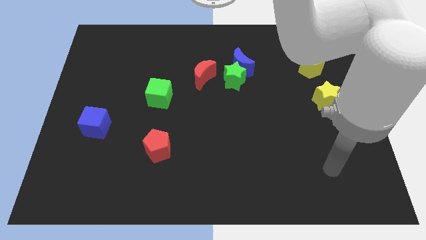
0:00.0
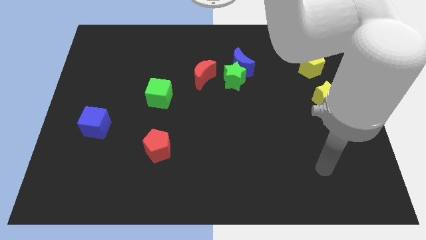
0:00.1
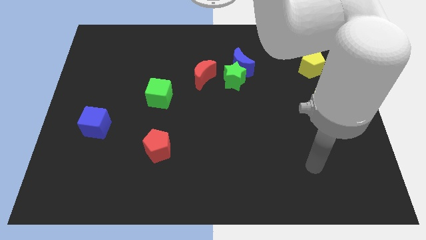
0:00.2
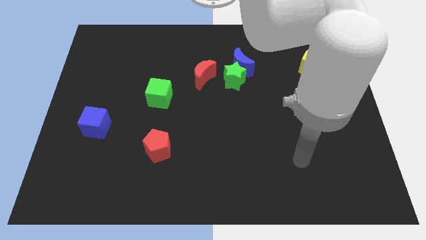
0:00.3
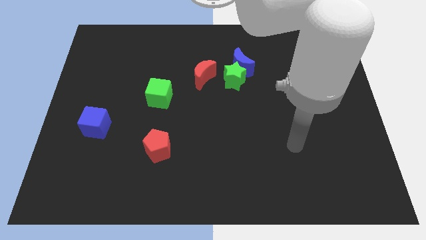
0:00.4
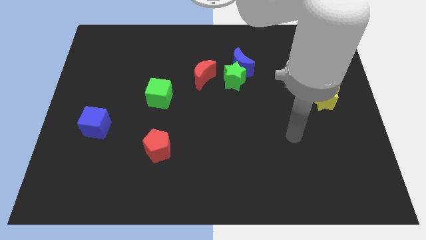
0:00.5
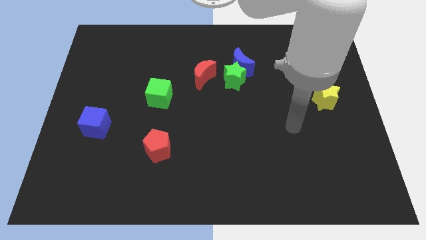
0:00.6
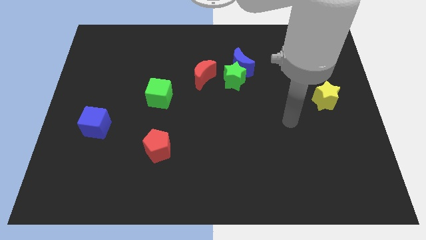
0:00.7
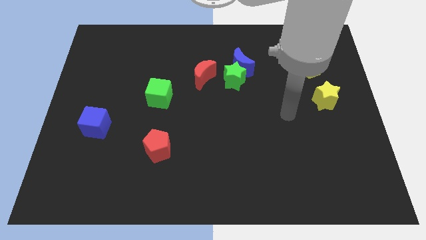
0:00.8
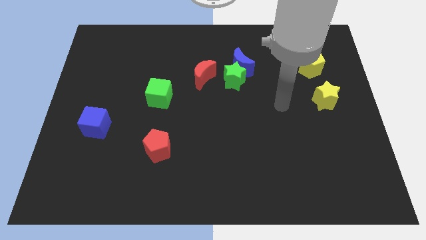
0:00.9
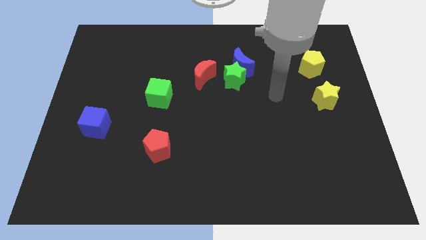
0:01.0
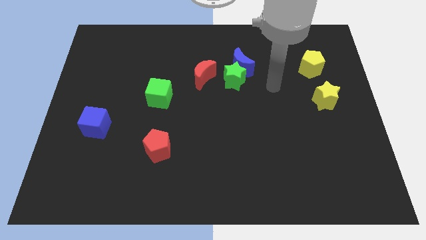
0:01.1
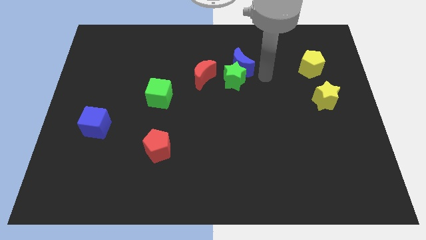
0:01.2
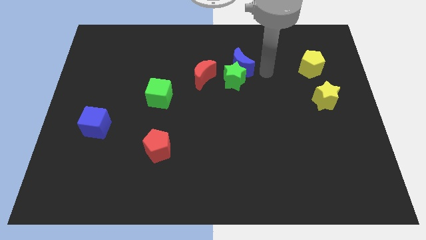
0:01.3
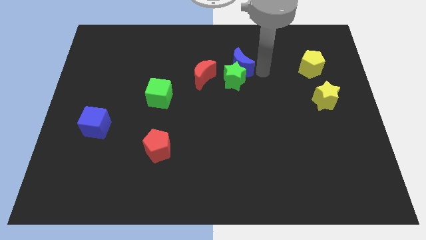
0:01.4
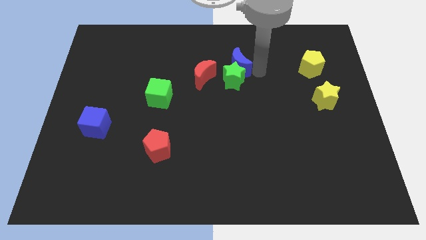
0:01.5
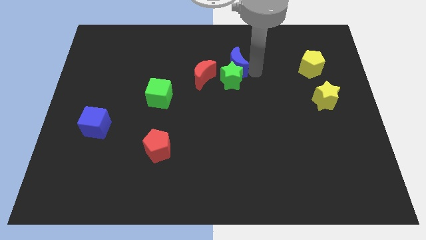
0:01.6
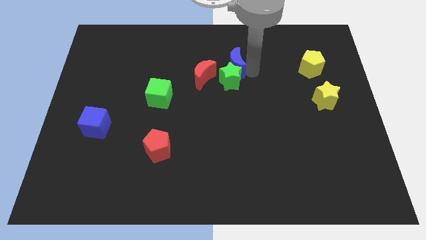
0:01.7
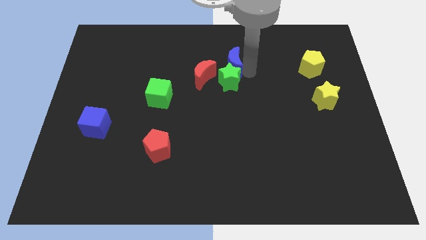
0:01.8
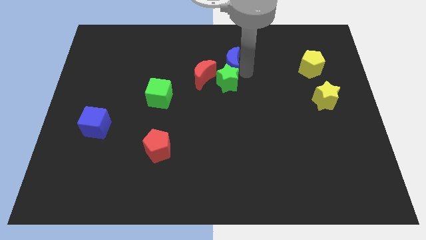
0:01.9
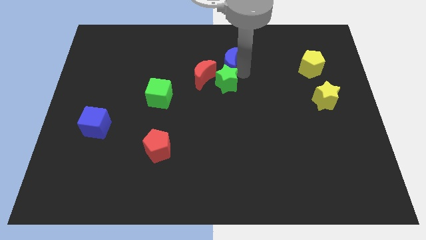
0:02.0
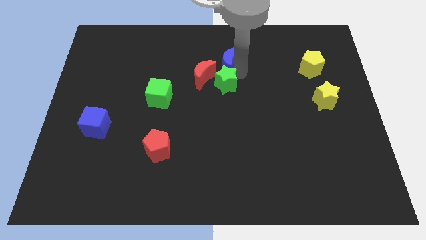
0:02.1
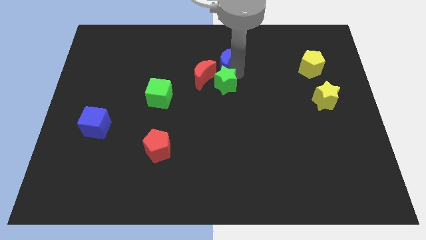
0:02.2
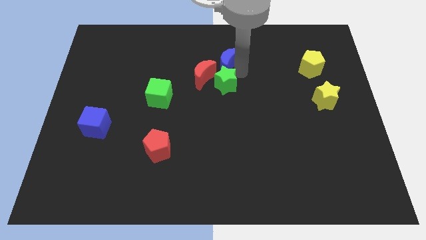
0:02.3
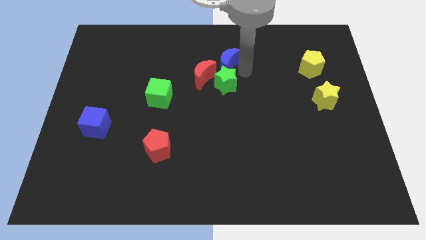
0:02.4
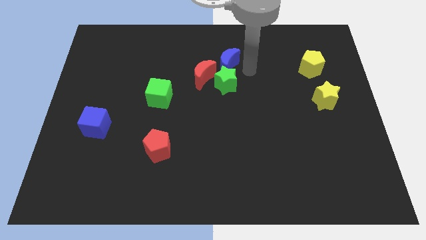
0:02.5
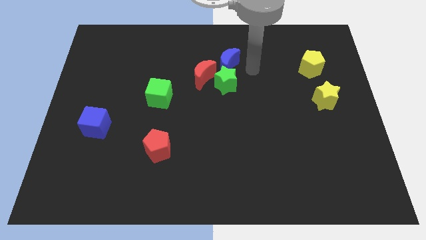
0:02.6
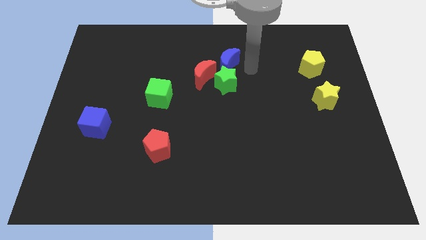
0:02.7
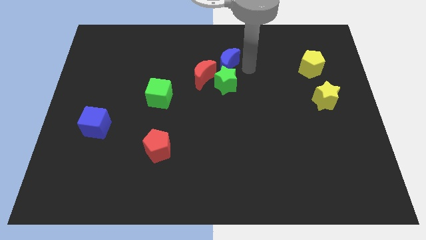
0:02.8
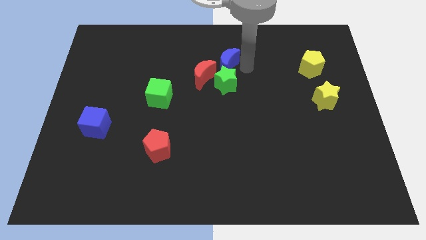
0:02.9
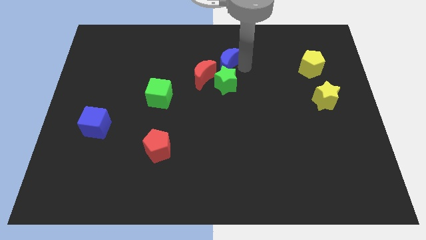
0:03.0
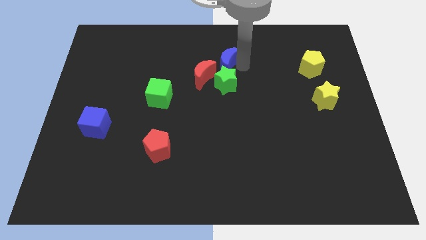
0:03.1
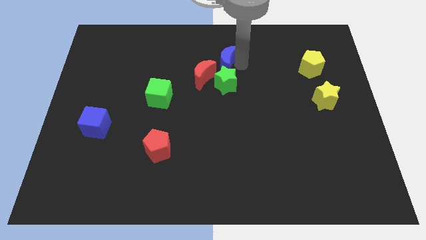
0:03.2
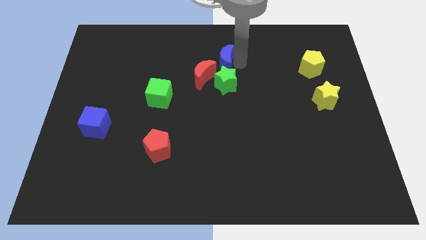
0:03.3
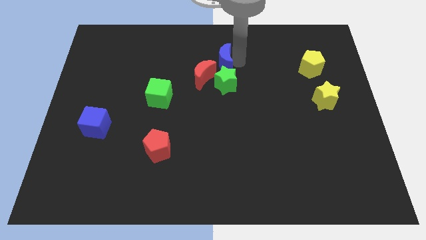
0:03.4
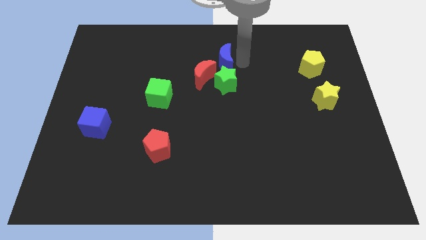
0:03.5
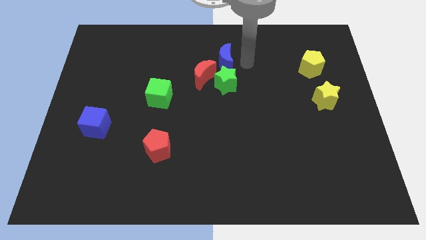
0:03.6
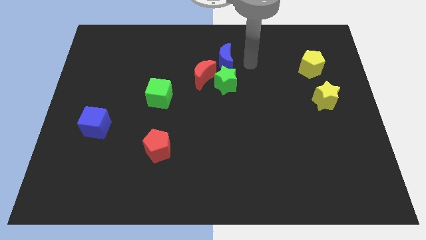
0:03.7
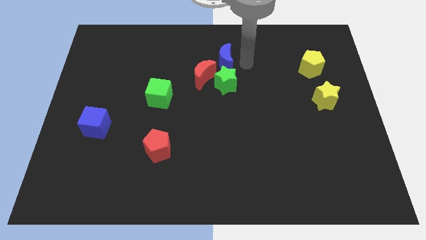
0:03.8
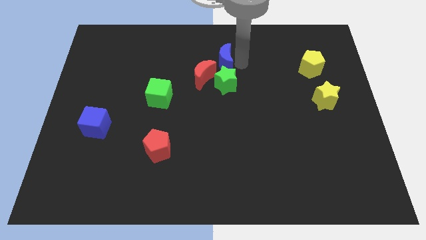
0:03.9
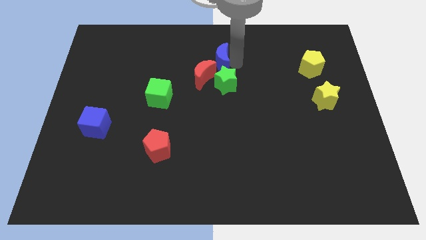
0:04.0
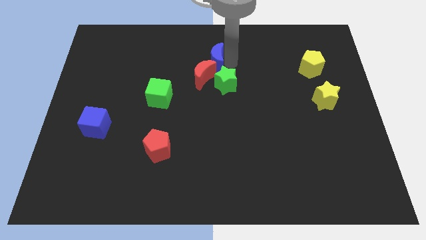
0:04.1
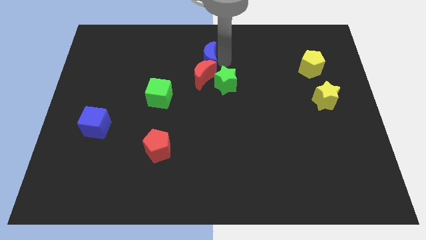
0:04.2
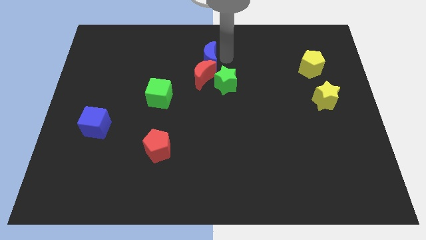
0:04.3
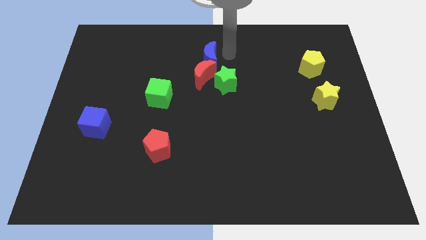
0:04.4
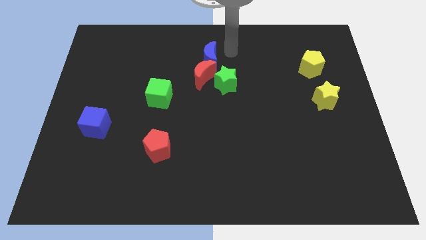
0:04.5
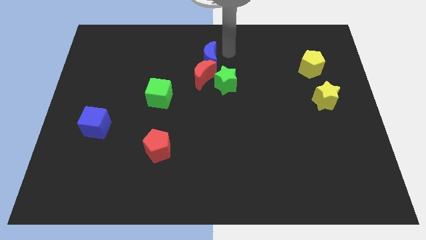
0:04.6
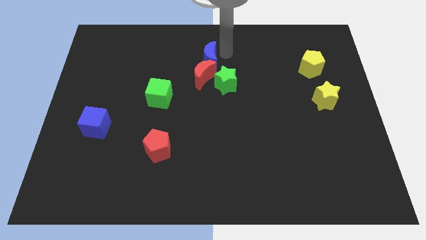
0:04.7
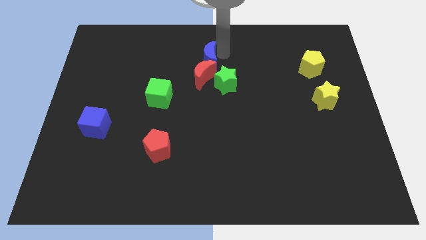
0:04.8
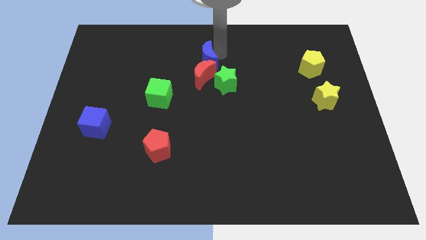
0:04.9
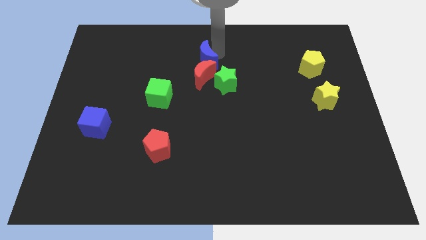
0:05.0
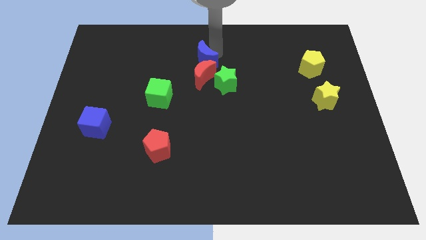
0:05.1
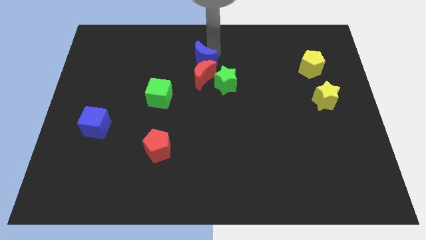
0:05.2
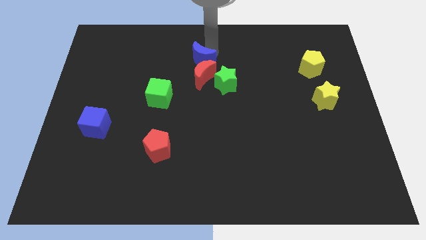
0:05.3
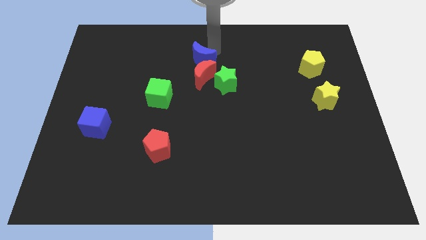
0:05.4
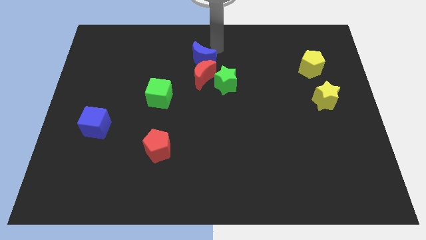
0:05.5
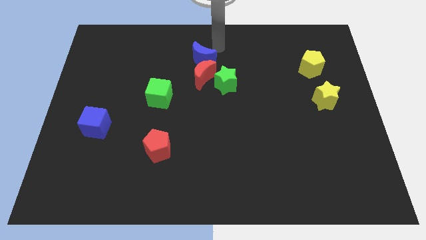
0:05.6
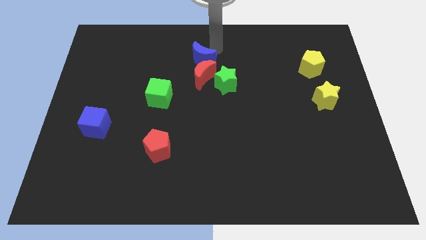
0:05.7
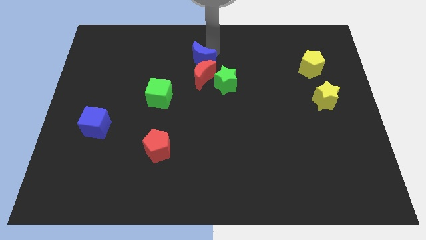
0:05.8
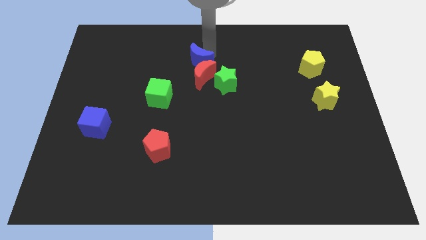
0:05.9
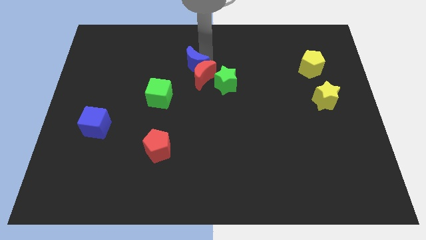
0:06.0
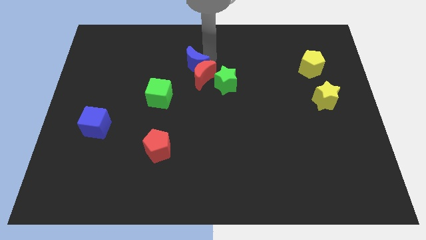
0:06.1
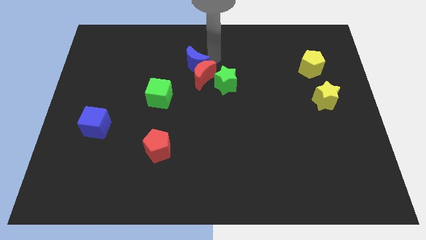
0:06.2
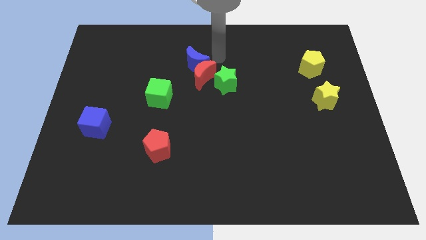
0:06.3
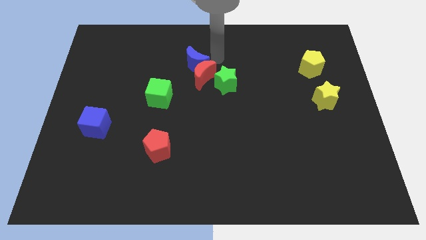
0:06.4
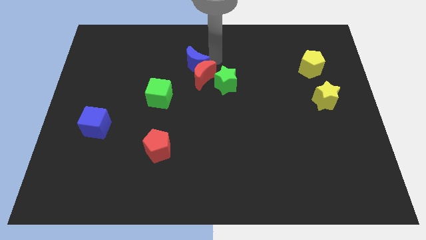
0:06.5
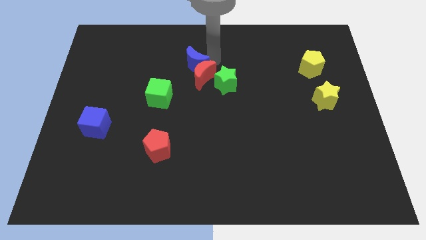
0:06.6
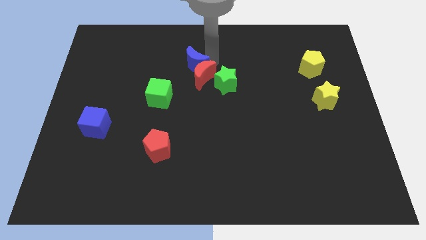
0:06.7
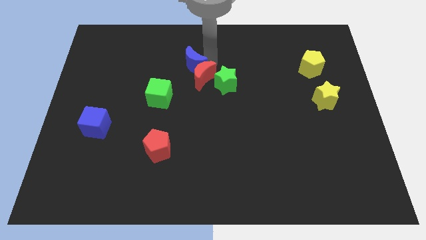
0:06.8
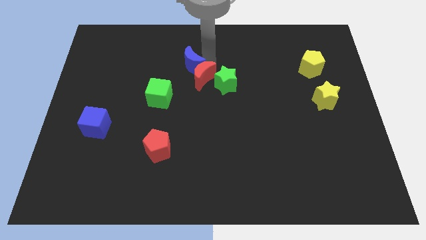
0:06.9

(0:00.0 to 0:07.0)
slide the blue moon left of the red moon
